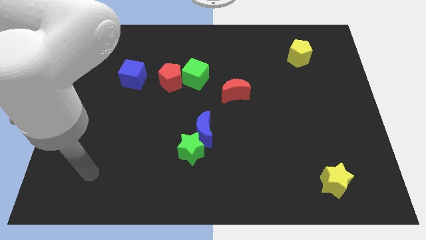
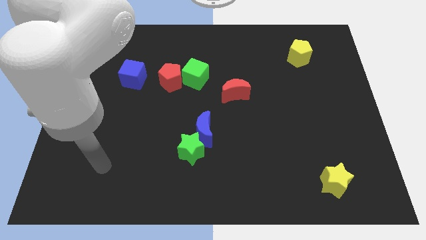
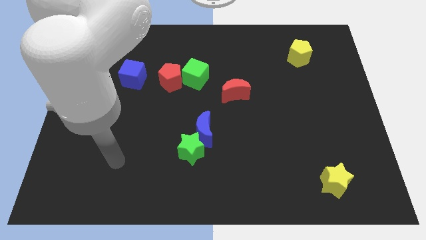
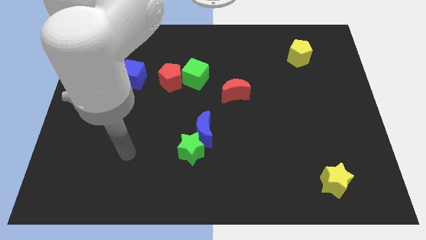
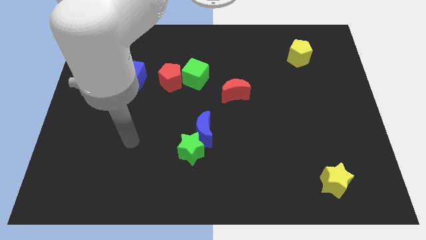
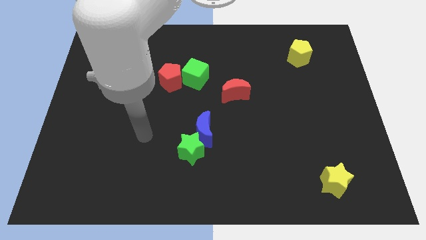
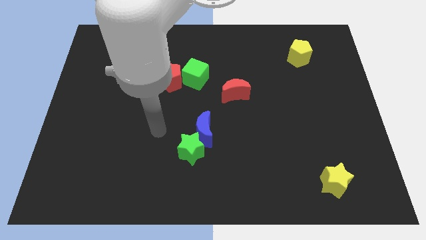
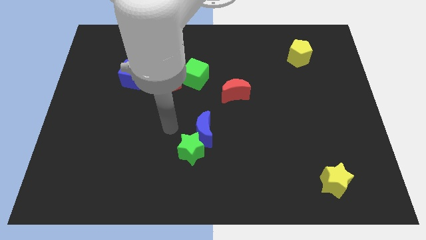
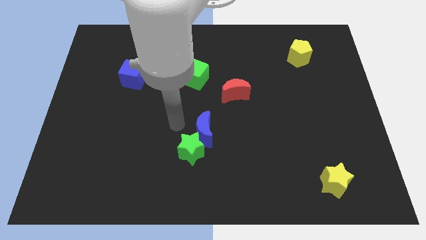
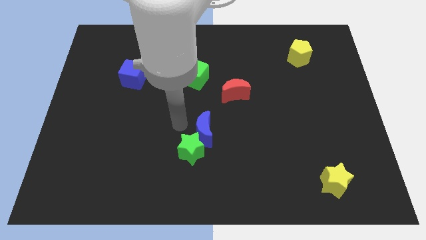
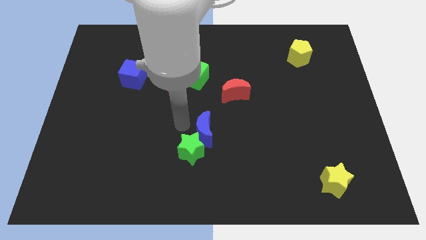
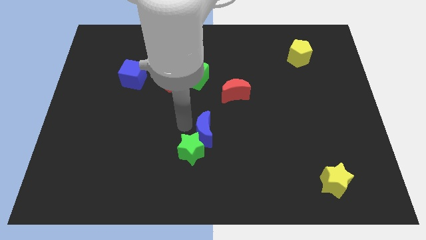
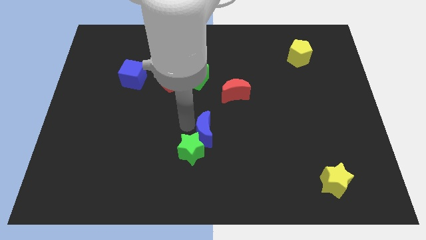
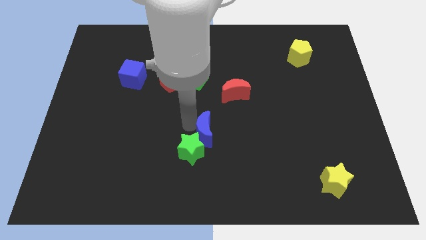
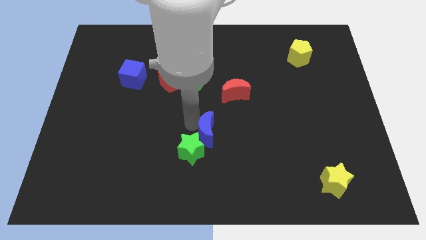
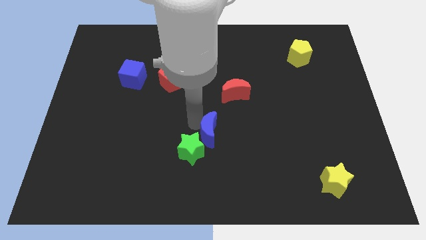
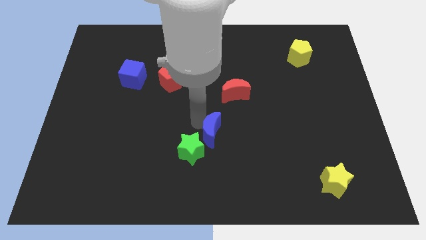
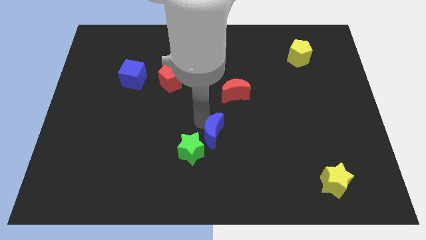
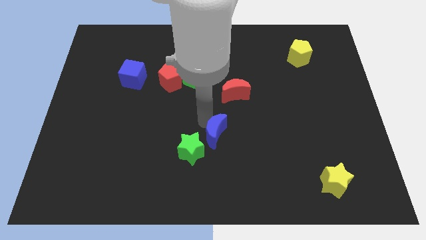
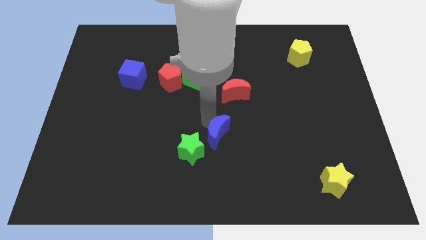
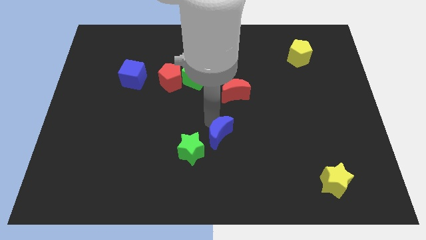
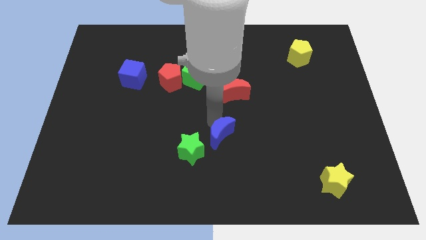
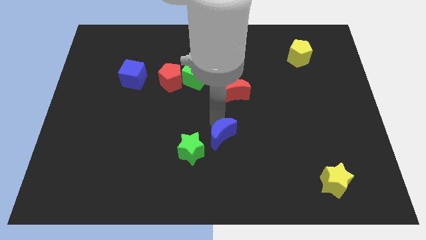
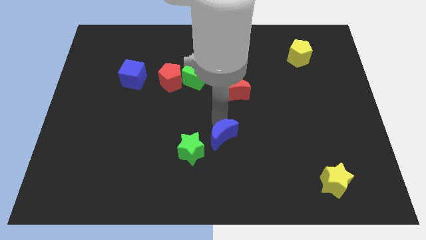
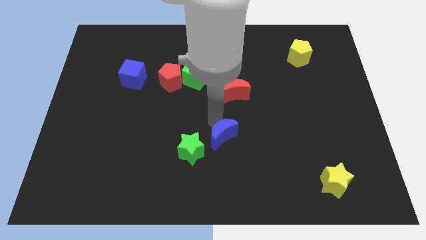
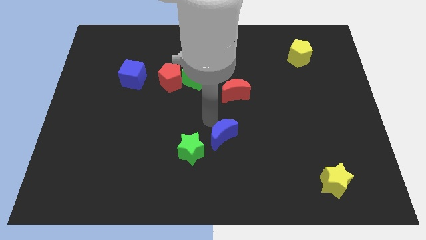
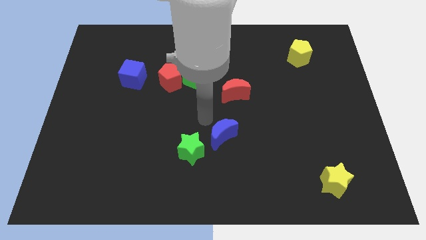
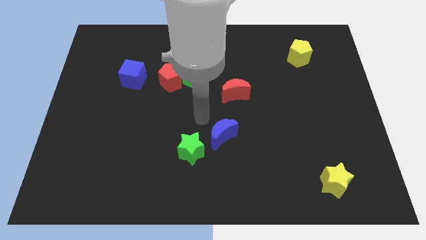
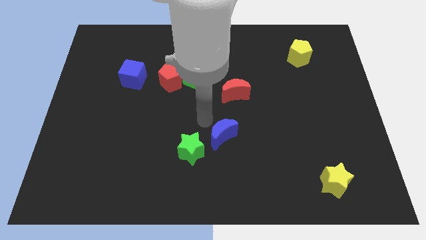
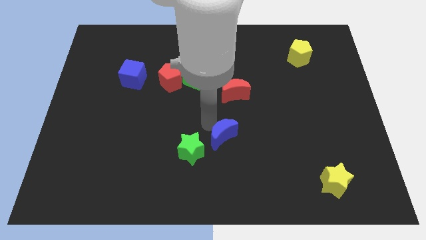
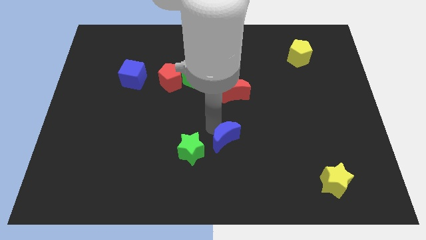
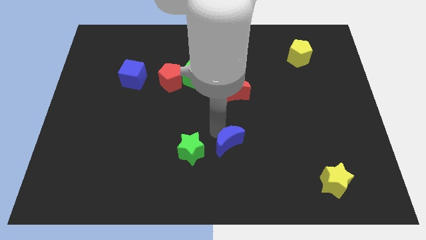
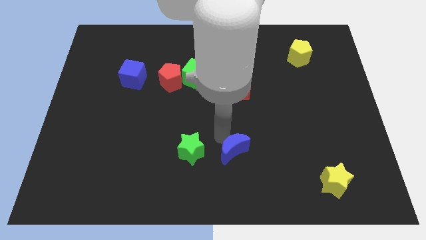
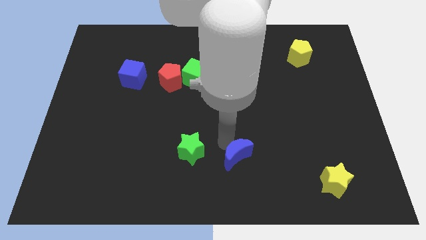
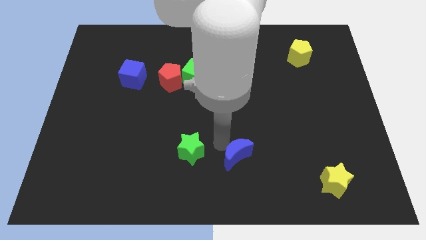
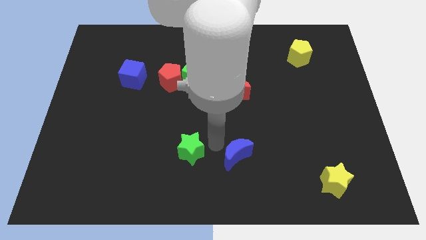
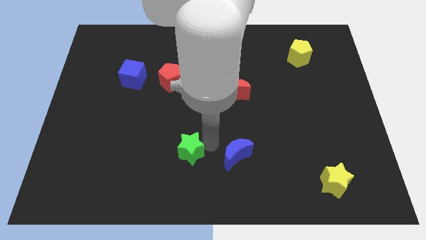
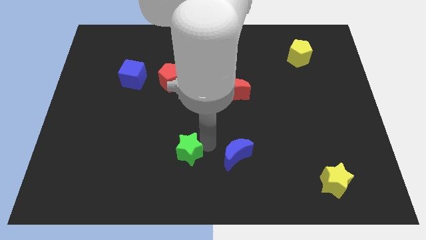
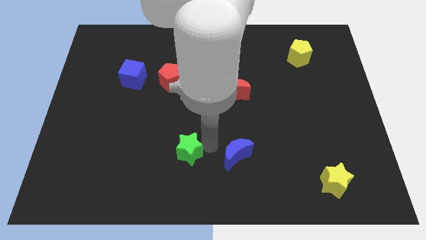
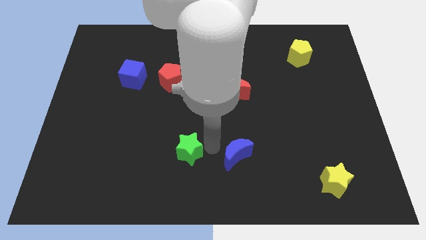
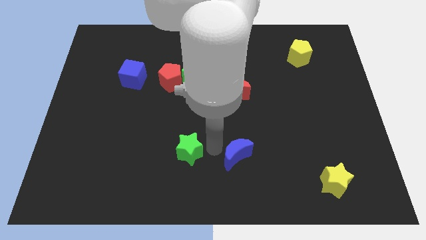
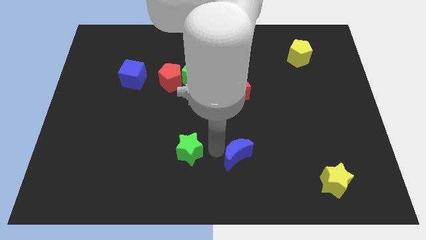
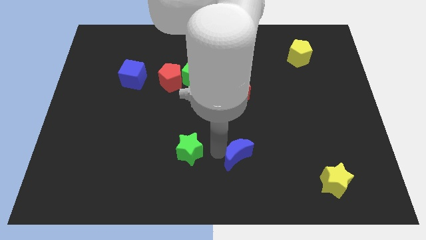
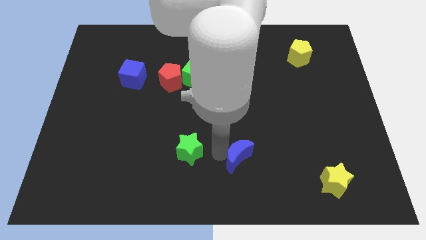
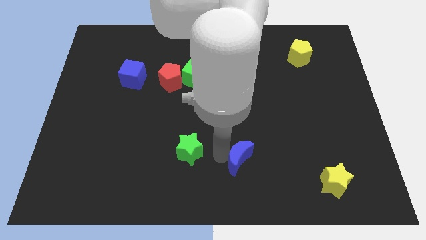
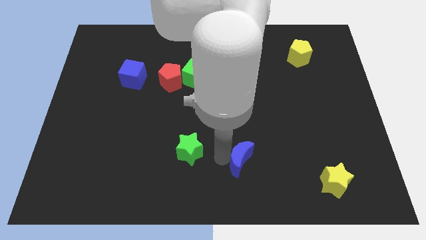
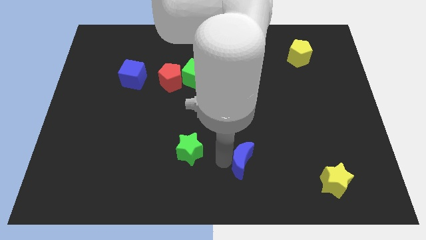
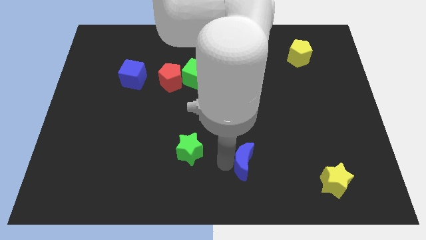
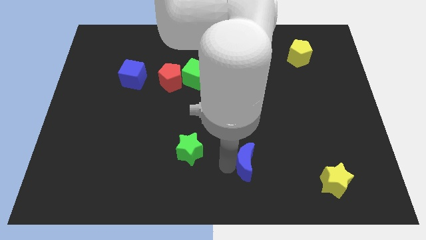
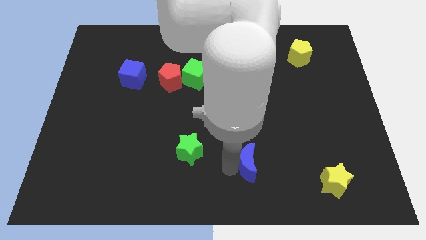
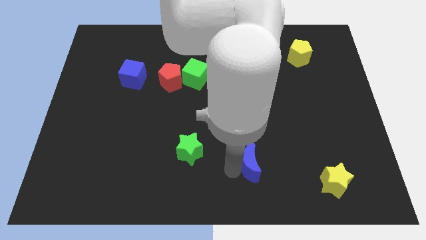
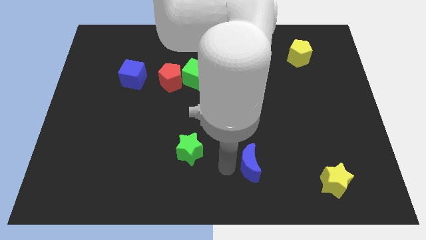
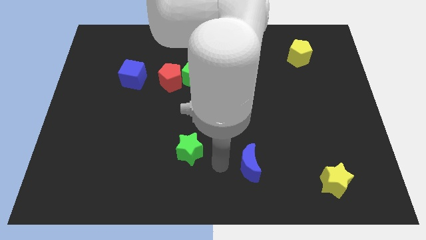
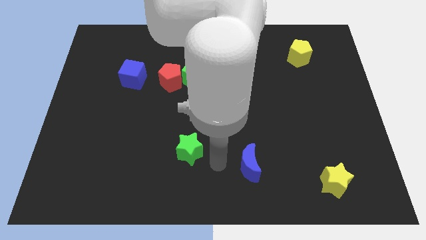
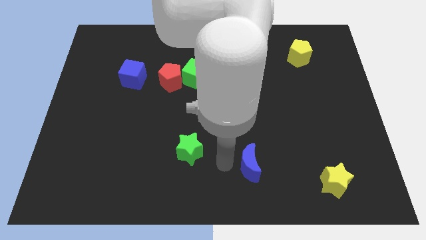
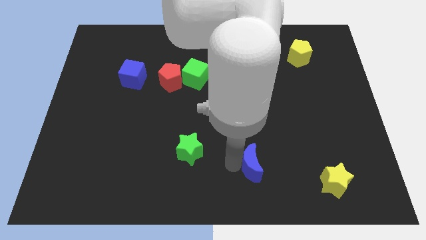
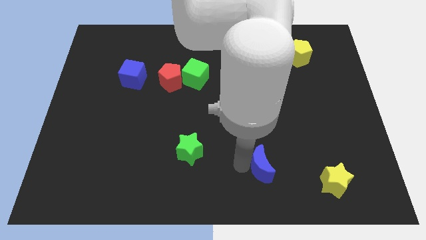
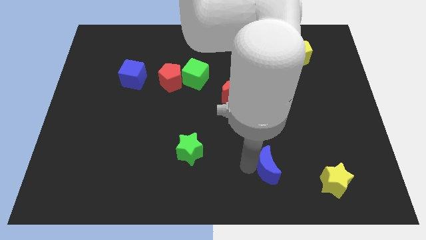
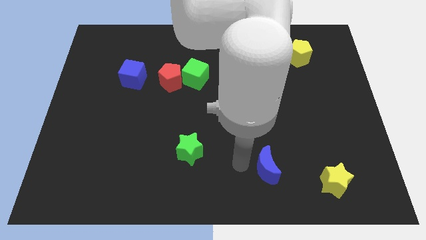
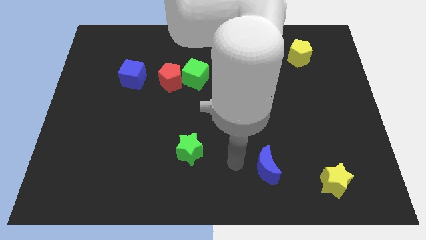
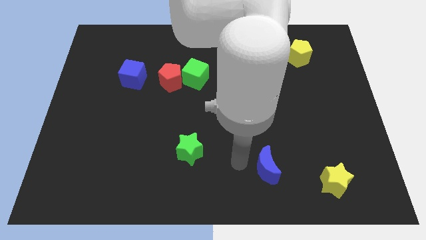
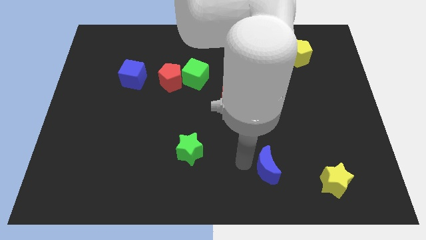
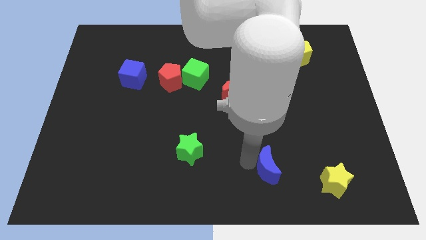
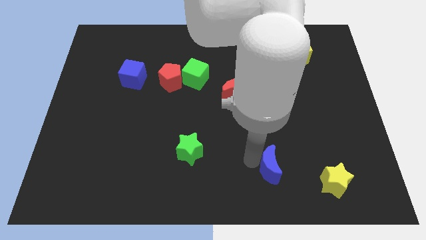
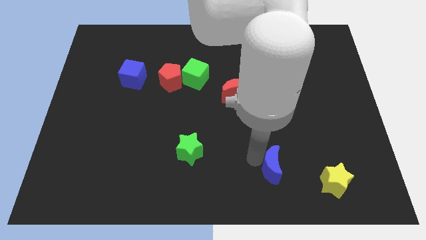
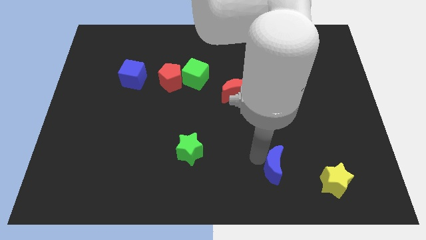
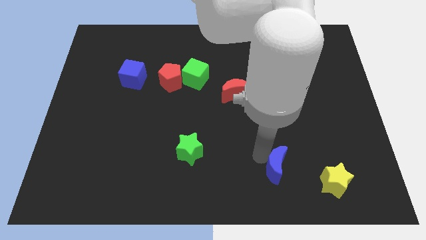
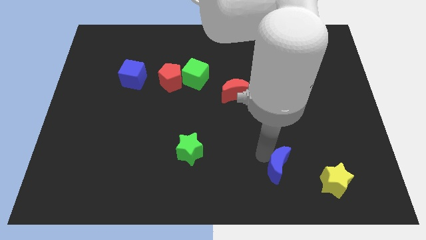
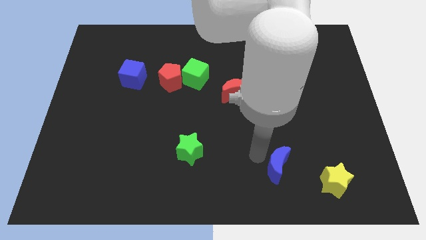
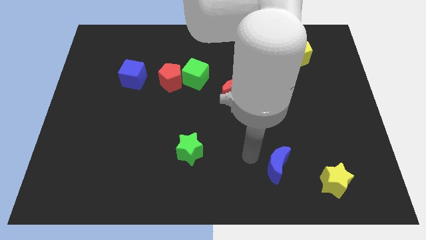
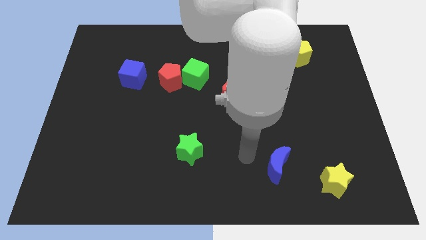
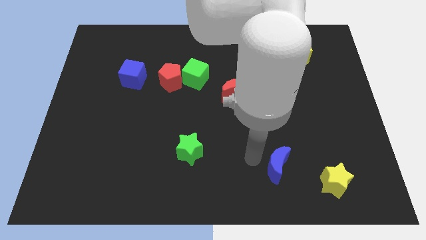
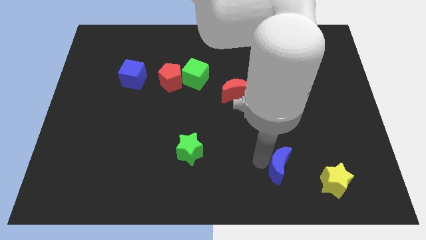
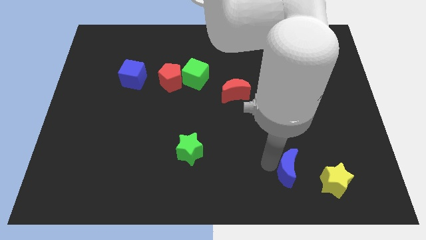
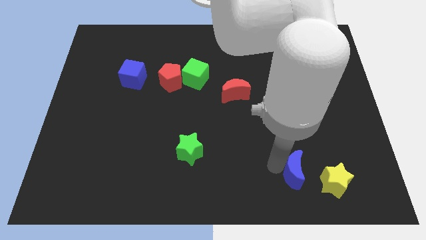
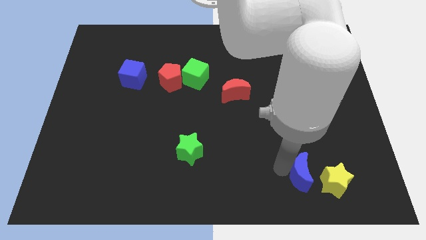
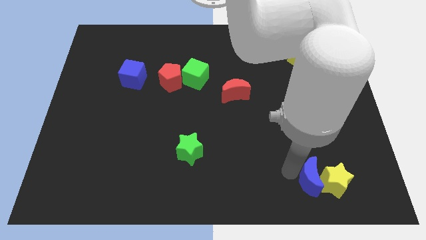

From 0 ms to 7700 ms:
move the blue moon close to the yellow star
